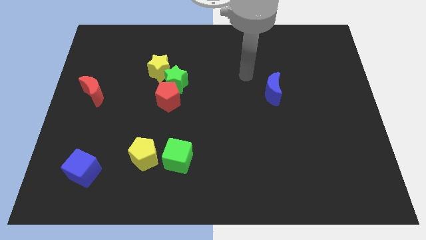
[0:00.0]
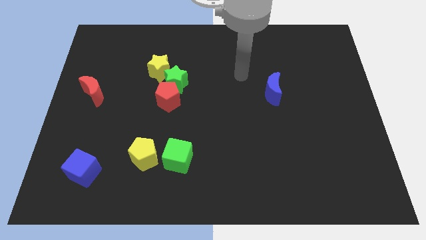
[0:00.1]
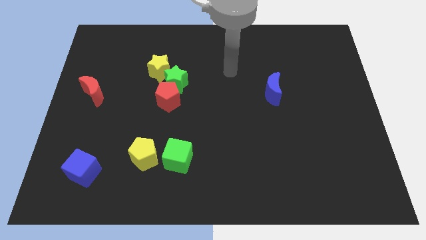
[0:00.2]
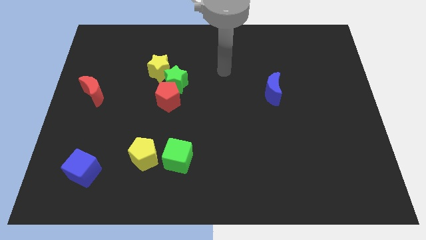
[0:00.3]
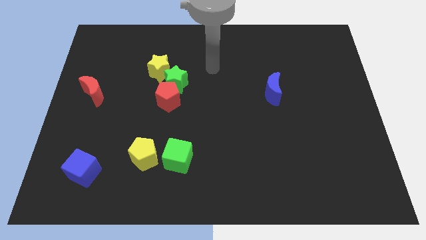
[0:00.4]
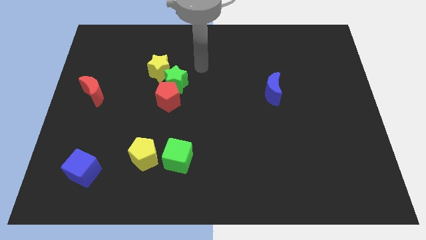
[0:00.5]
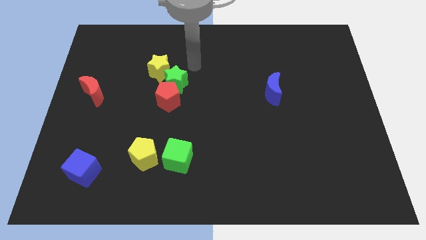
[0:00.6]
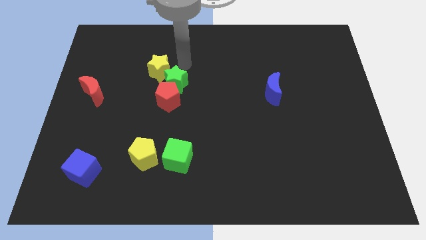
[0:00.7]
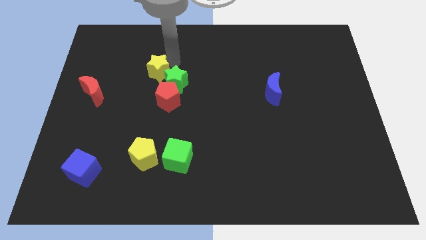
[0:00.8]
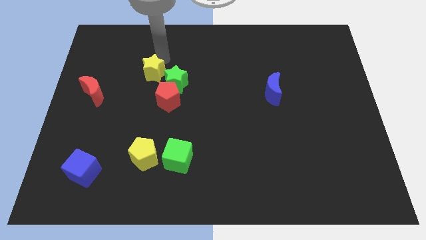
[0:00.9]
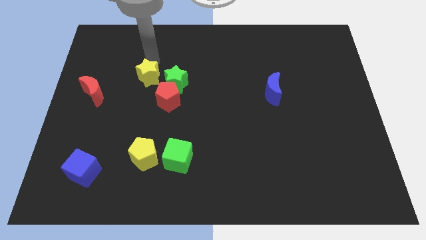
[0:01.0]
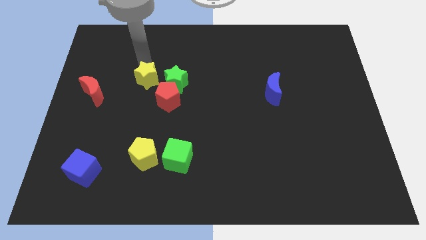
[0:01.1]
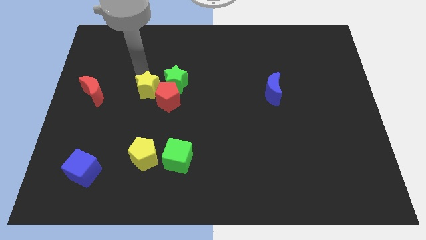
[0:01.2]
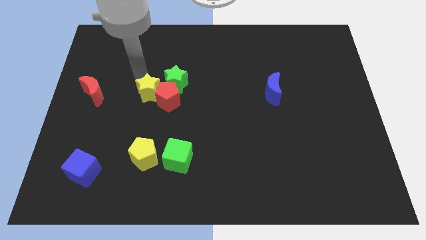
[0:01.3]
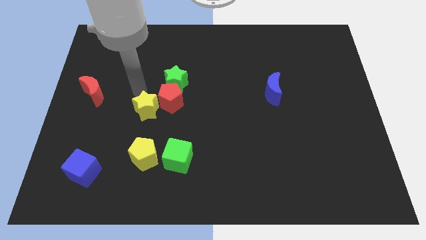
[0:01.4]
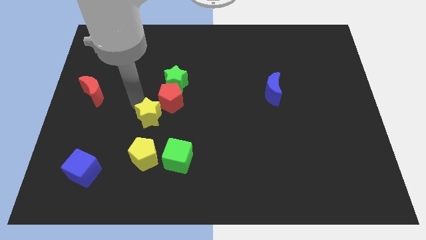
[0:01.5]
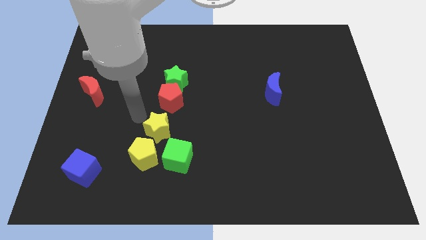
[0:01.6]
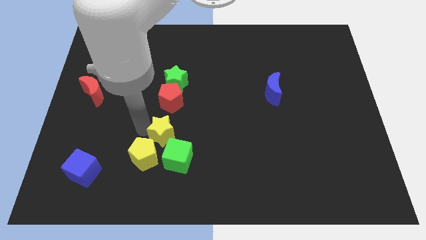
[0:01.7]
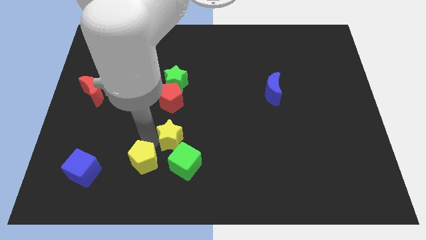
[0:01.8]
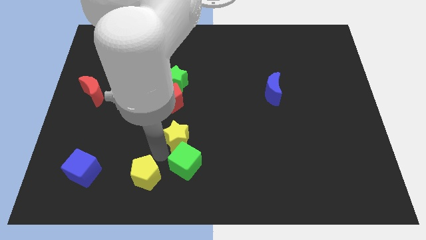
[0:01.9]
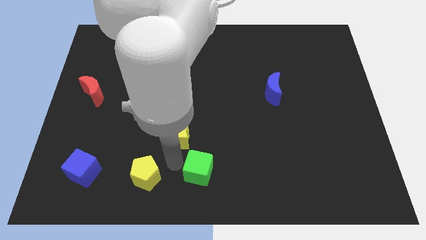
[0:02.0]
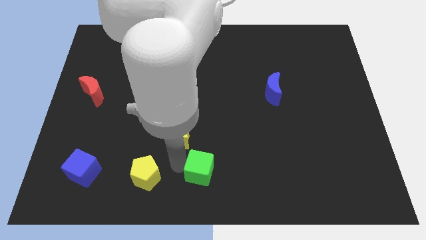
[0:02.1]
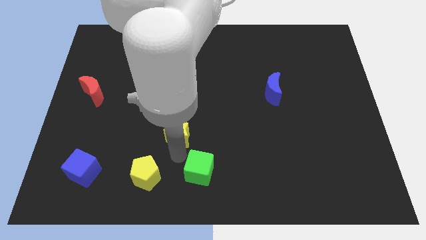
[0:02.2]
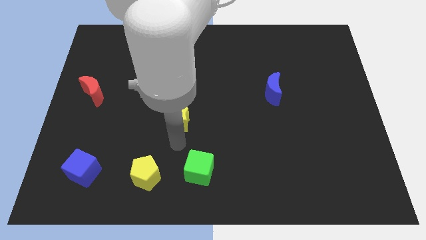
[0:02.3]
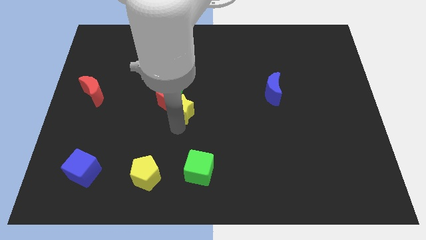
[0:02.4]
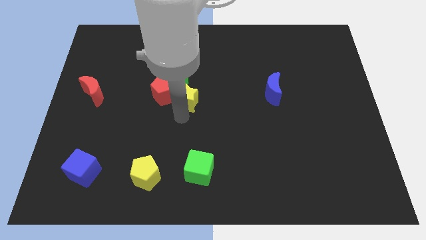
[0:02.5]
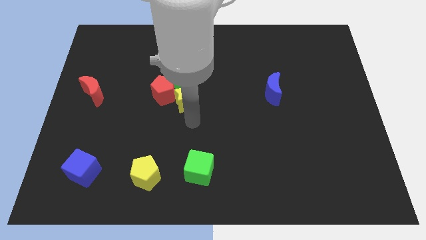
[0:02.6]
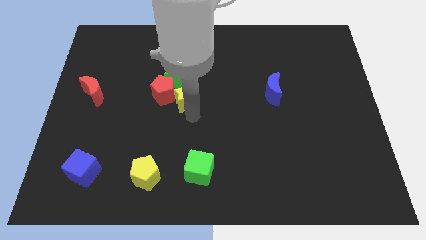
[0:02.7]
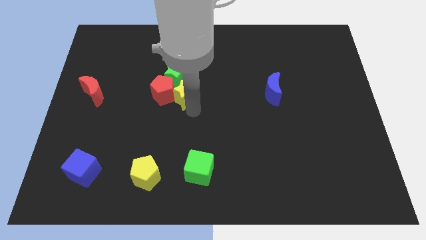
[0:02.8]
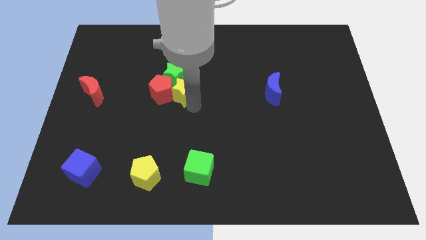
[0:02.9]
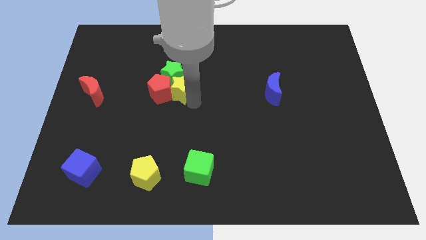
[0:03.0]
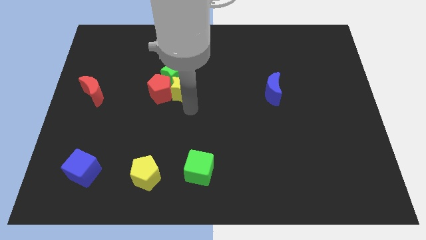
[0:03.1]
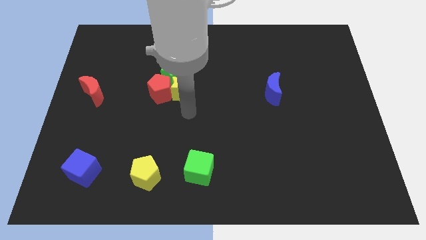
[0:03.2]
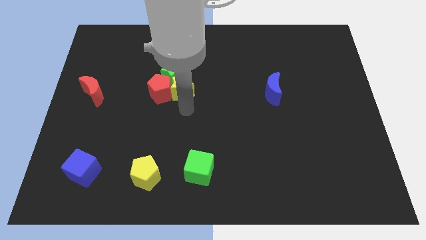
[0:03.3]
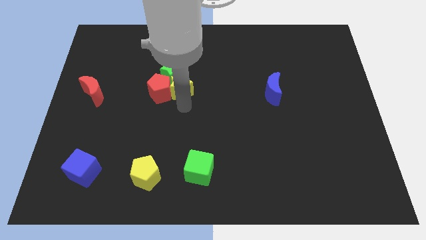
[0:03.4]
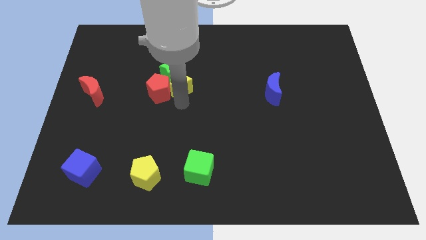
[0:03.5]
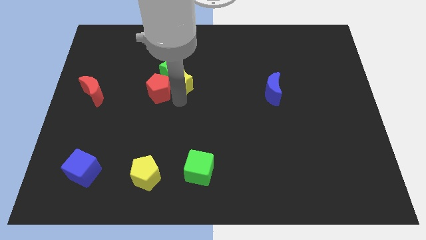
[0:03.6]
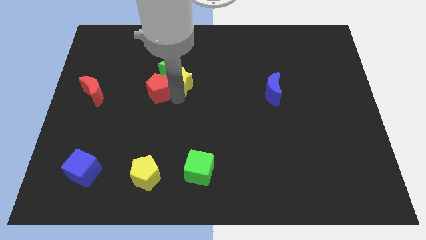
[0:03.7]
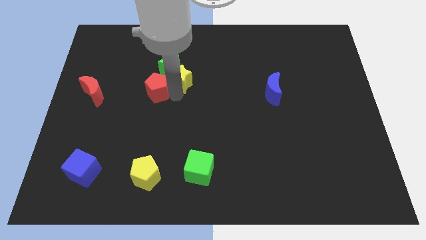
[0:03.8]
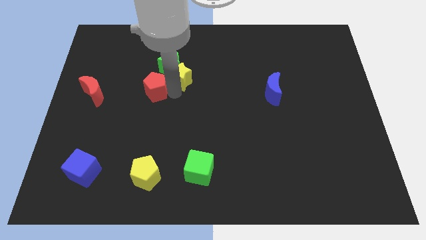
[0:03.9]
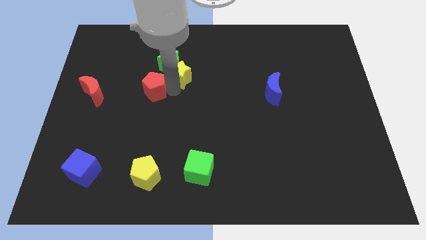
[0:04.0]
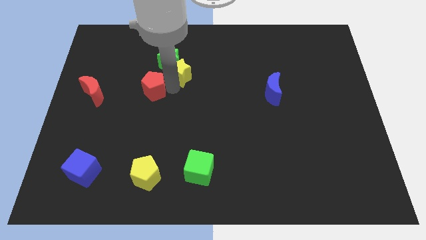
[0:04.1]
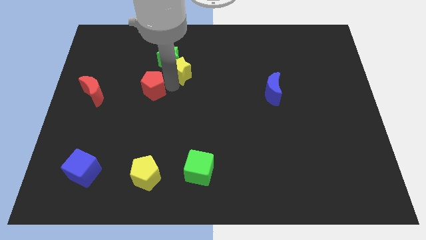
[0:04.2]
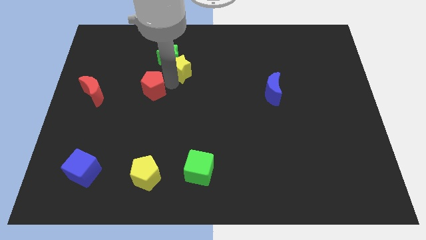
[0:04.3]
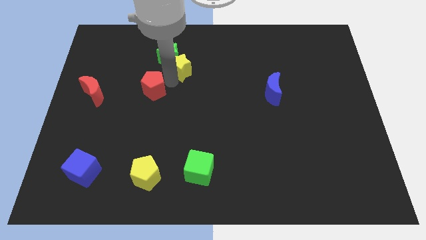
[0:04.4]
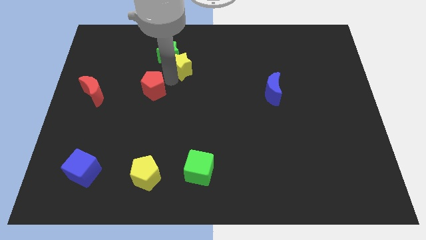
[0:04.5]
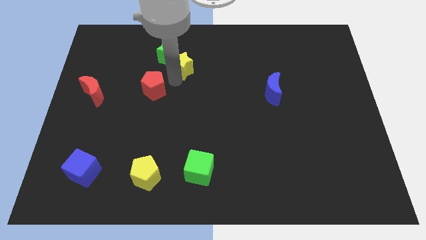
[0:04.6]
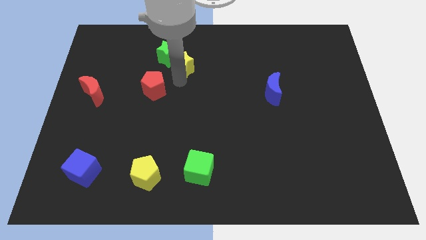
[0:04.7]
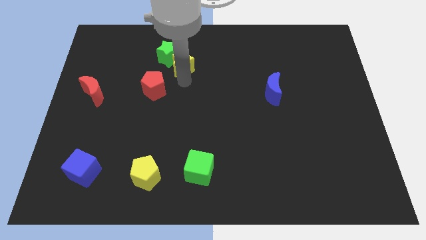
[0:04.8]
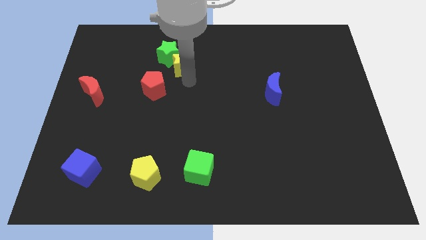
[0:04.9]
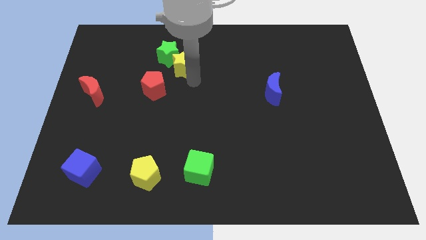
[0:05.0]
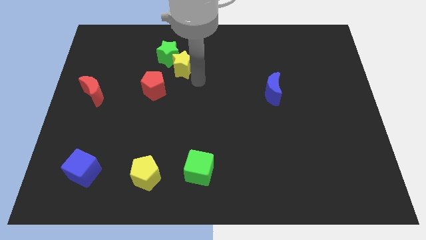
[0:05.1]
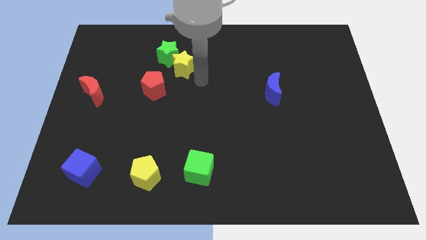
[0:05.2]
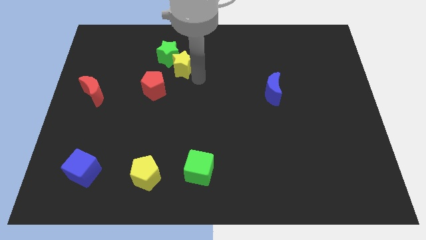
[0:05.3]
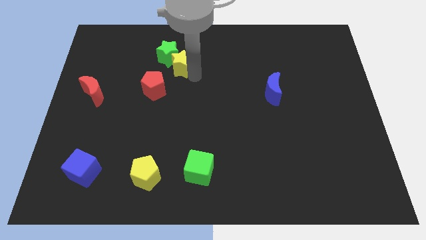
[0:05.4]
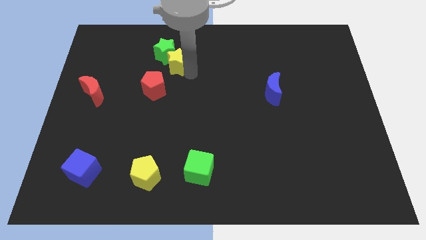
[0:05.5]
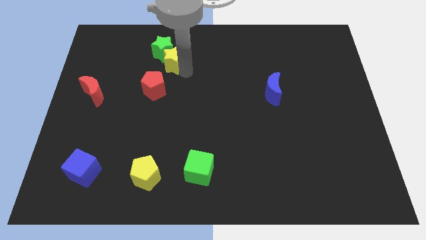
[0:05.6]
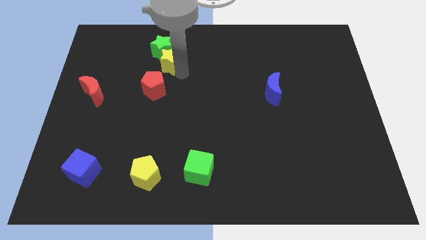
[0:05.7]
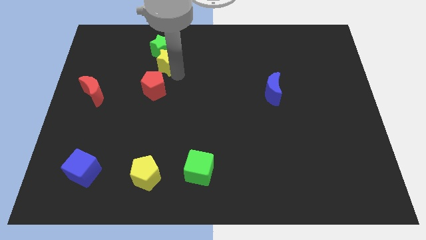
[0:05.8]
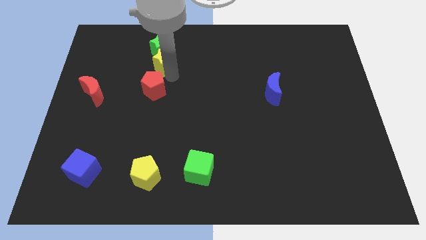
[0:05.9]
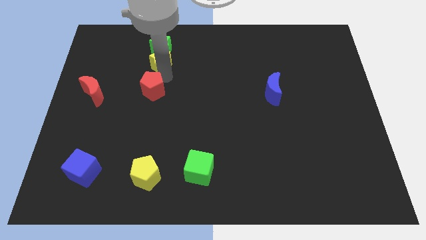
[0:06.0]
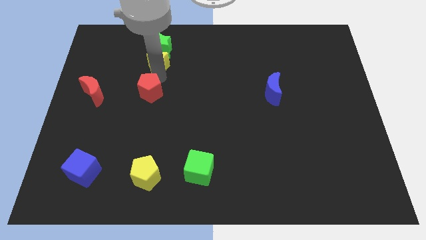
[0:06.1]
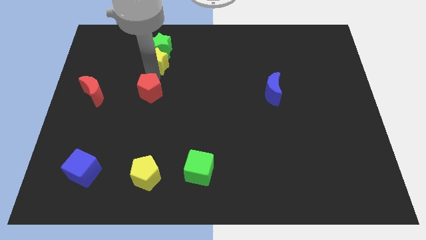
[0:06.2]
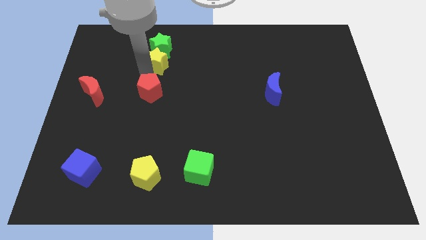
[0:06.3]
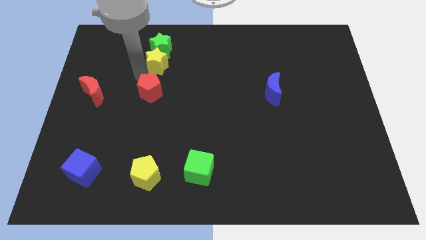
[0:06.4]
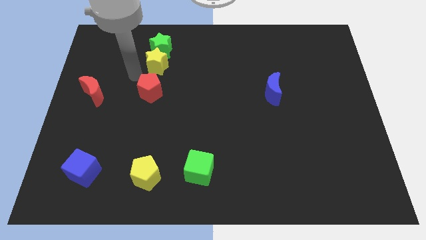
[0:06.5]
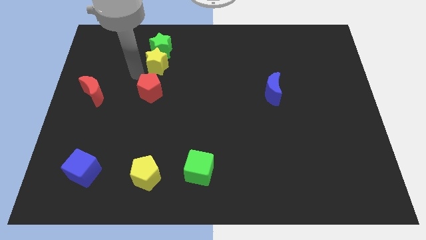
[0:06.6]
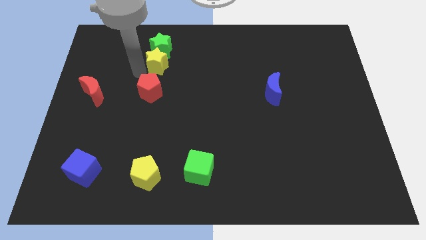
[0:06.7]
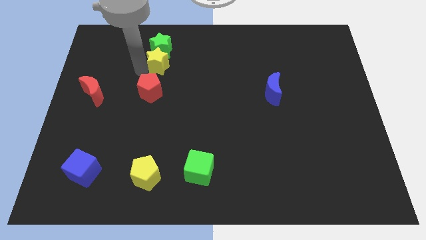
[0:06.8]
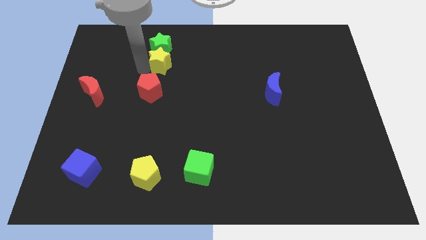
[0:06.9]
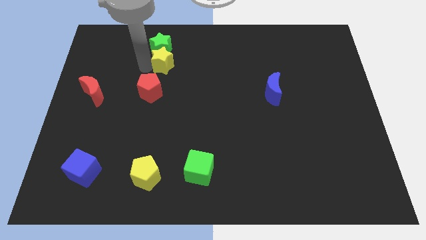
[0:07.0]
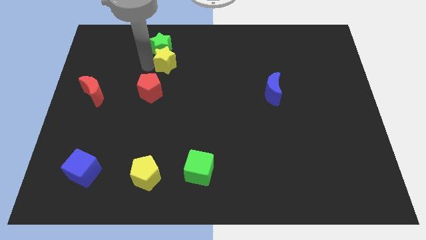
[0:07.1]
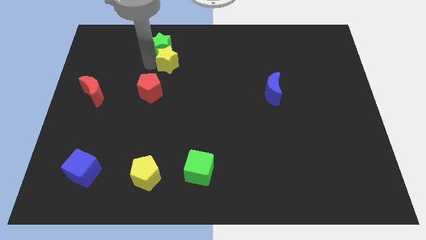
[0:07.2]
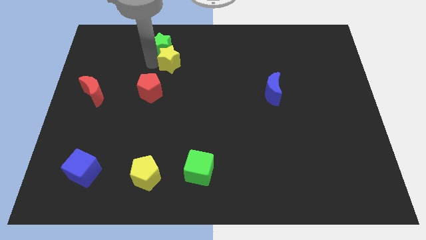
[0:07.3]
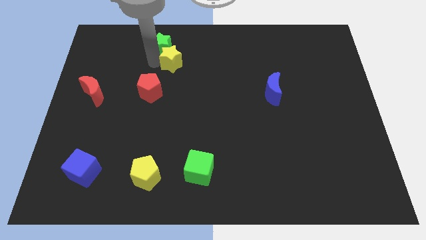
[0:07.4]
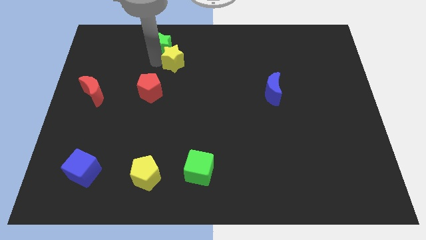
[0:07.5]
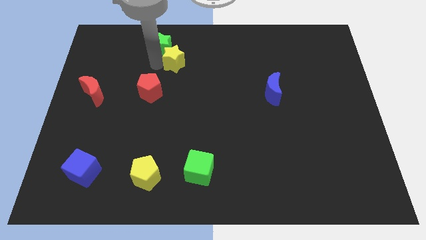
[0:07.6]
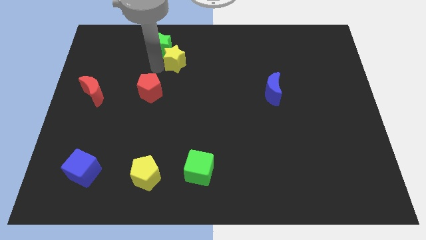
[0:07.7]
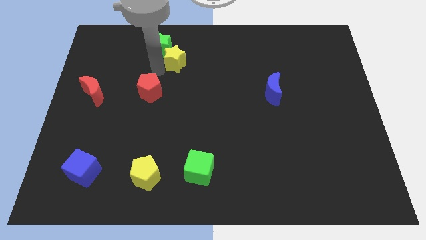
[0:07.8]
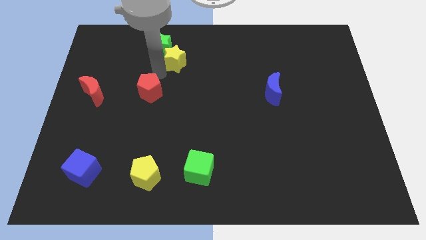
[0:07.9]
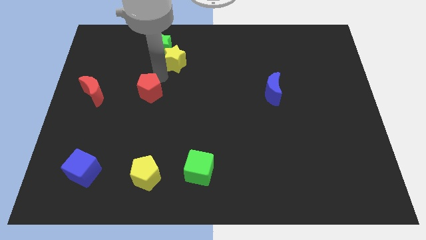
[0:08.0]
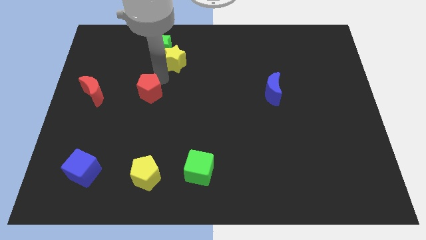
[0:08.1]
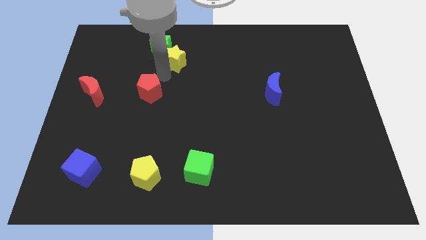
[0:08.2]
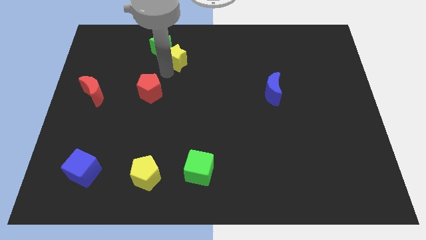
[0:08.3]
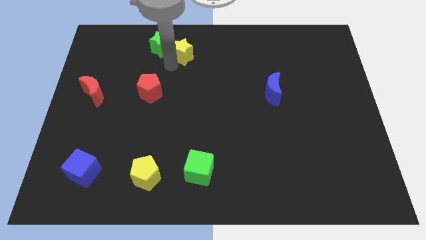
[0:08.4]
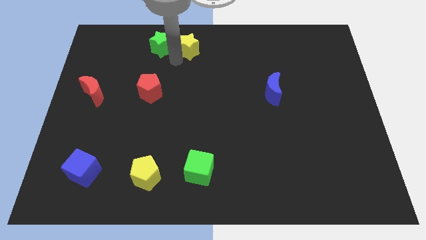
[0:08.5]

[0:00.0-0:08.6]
move the yellow star to the top side
